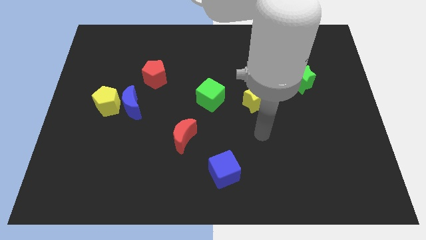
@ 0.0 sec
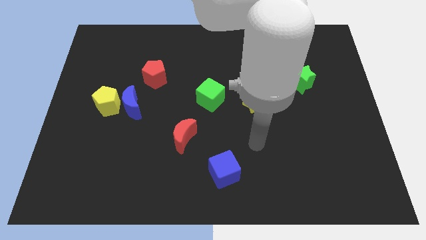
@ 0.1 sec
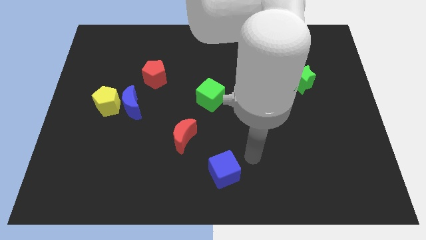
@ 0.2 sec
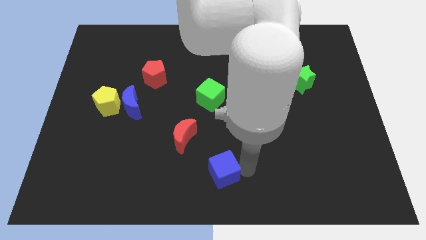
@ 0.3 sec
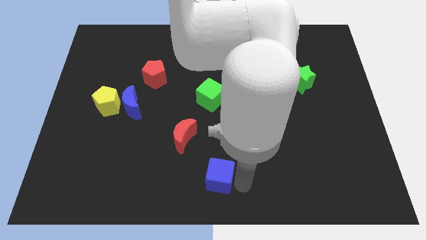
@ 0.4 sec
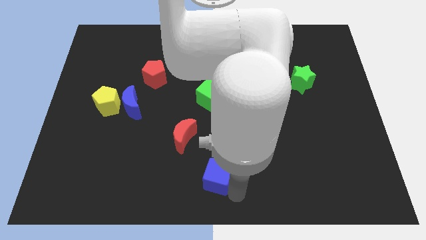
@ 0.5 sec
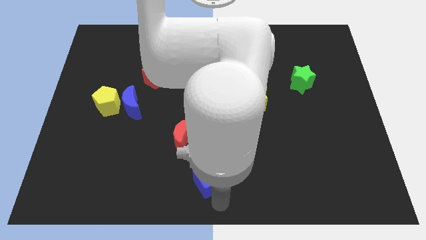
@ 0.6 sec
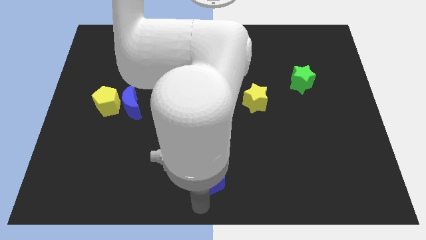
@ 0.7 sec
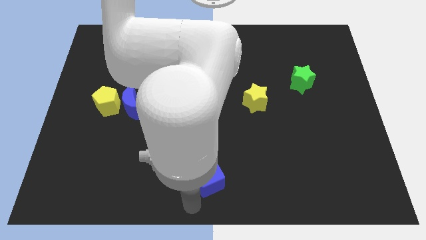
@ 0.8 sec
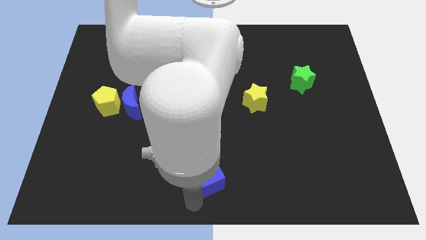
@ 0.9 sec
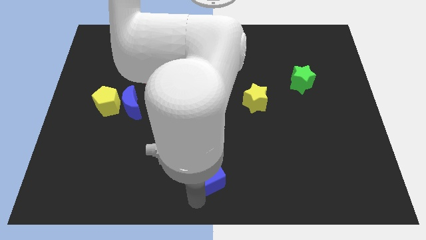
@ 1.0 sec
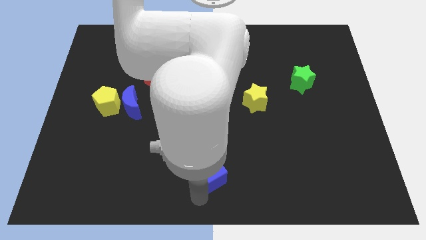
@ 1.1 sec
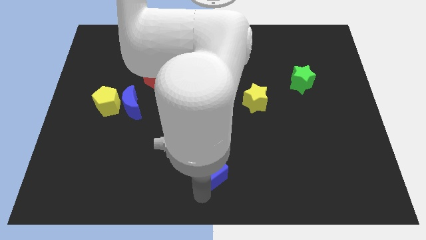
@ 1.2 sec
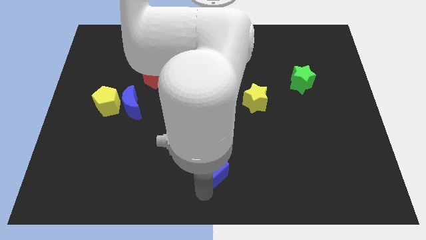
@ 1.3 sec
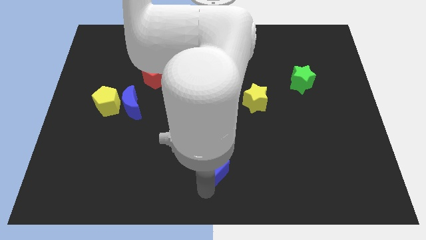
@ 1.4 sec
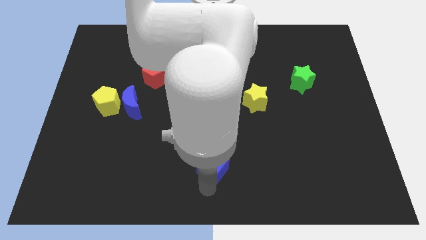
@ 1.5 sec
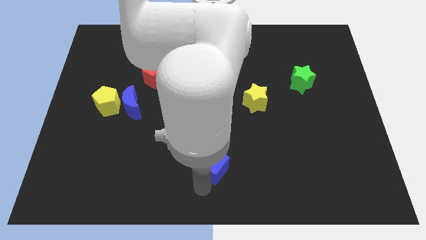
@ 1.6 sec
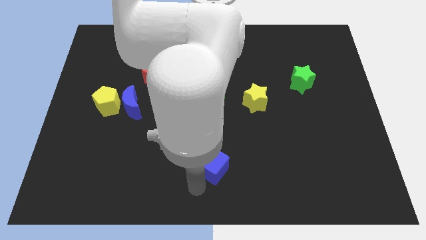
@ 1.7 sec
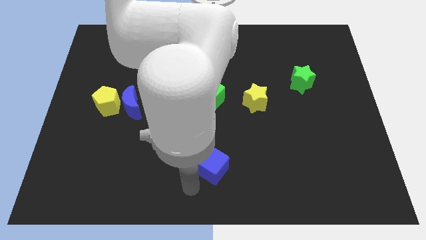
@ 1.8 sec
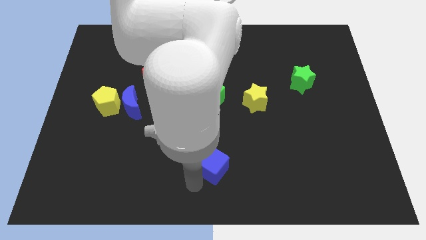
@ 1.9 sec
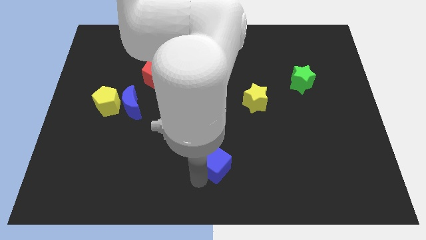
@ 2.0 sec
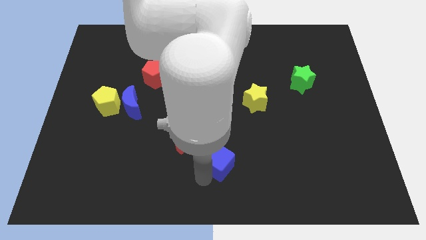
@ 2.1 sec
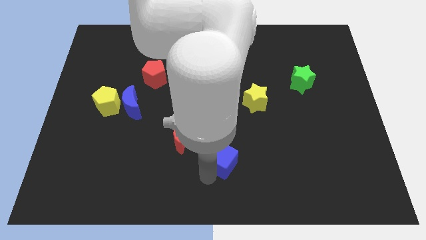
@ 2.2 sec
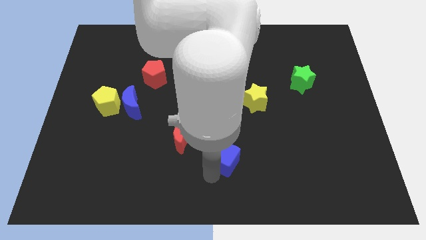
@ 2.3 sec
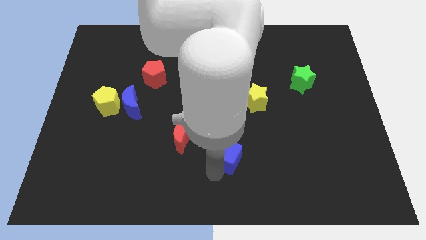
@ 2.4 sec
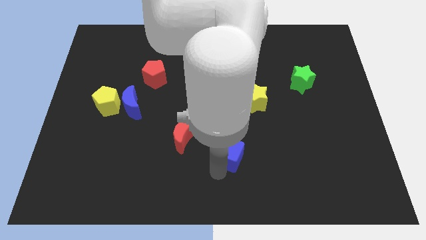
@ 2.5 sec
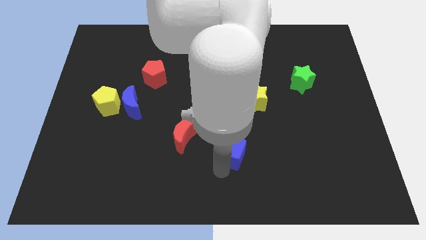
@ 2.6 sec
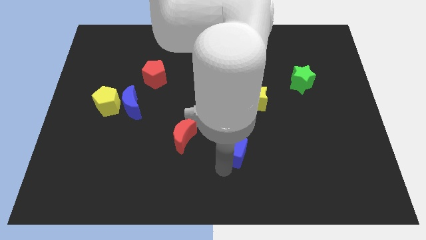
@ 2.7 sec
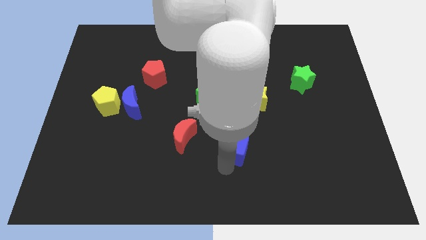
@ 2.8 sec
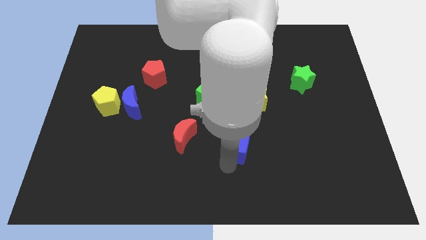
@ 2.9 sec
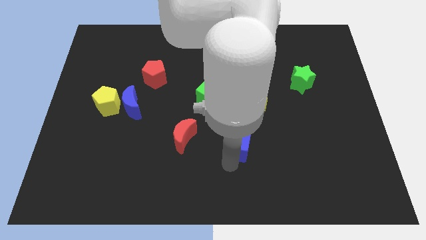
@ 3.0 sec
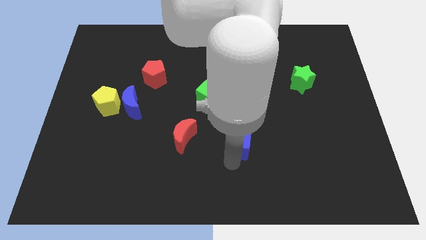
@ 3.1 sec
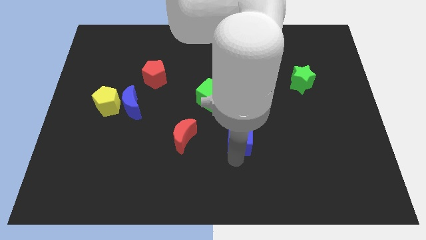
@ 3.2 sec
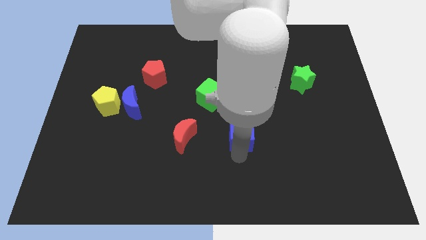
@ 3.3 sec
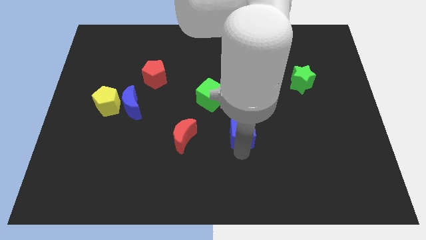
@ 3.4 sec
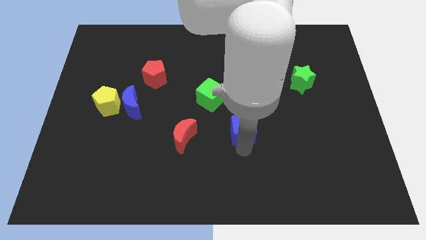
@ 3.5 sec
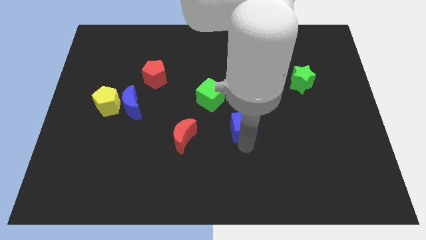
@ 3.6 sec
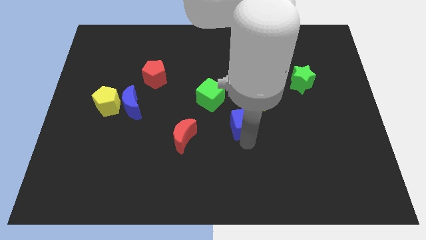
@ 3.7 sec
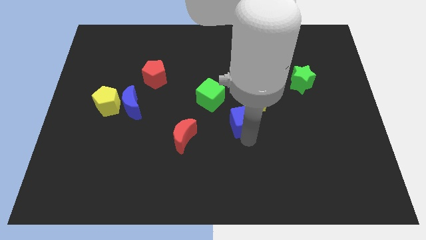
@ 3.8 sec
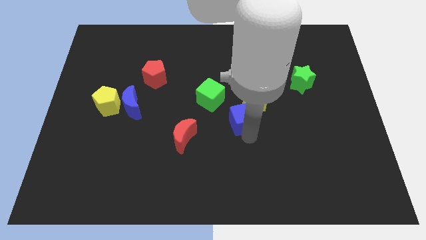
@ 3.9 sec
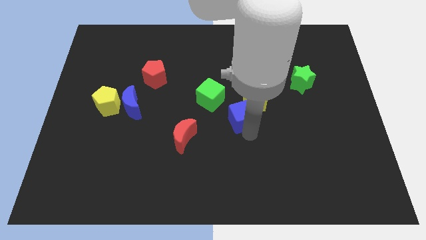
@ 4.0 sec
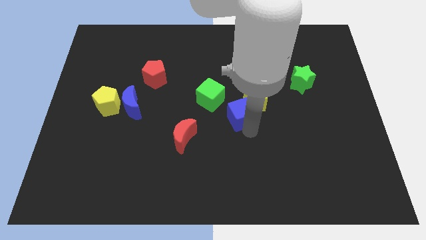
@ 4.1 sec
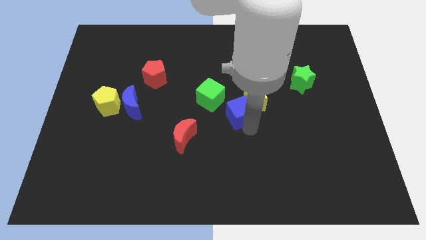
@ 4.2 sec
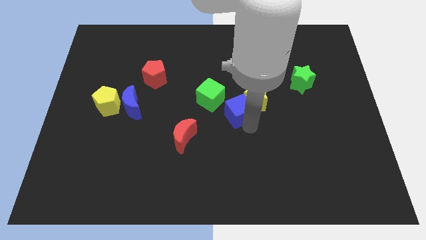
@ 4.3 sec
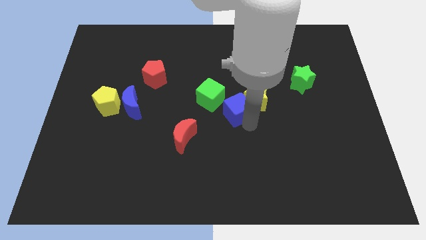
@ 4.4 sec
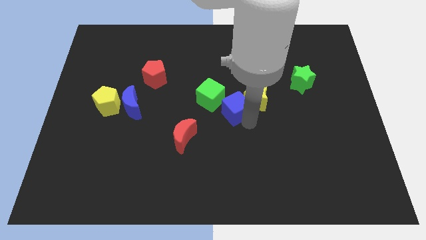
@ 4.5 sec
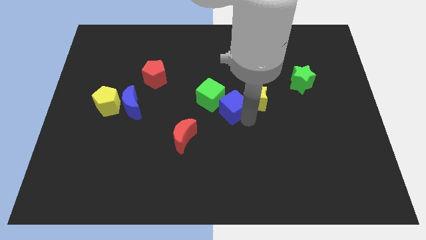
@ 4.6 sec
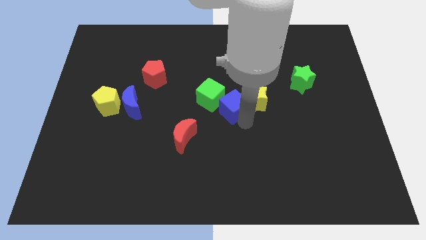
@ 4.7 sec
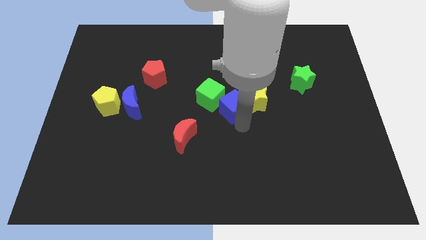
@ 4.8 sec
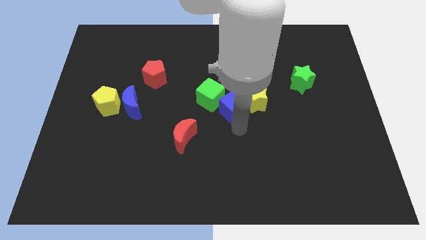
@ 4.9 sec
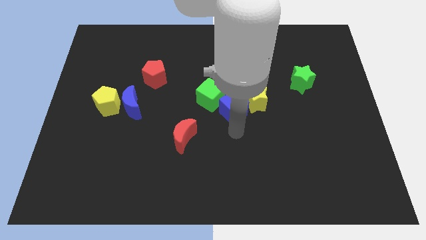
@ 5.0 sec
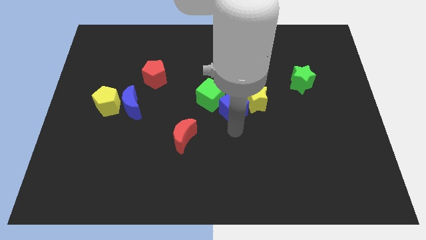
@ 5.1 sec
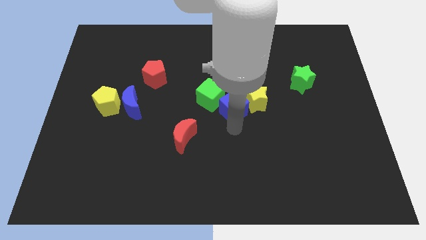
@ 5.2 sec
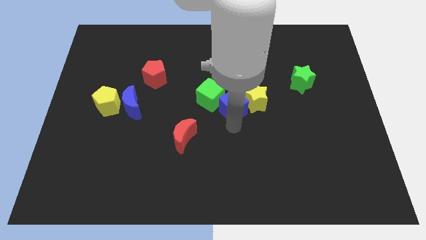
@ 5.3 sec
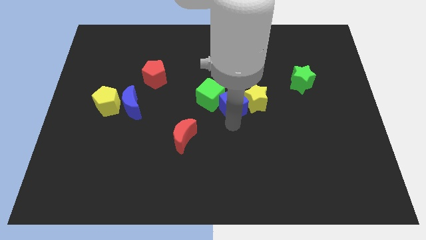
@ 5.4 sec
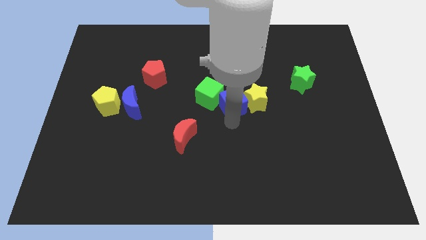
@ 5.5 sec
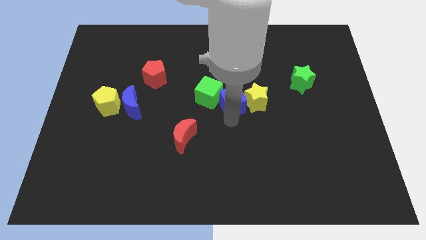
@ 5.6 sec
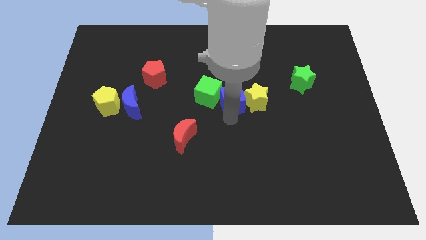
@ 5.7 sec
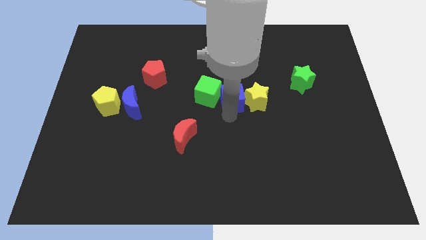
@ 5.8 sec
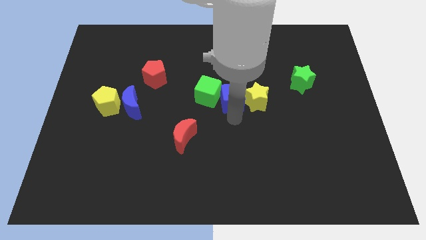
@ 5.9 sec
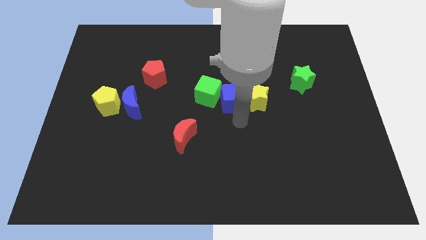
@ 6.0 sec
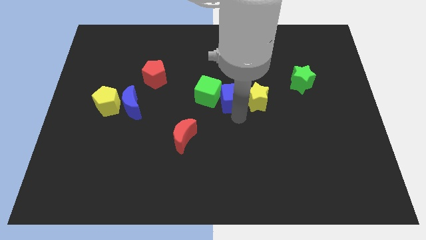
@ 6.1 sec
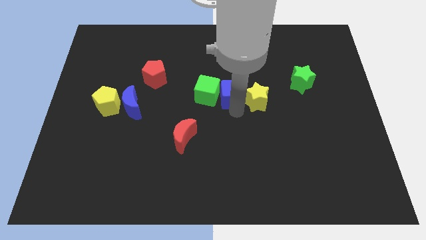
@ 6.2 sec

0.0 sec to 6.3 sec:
move the blue cube up

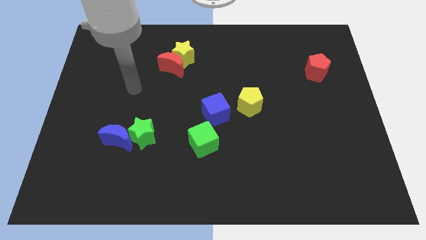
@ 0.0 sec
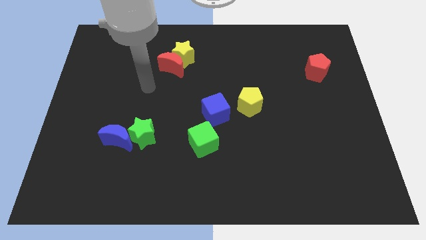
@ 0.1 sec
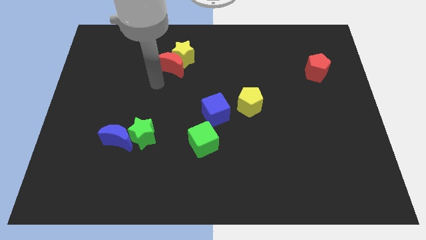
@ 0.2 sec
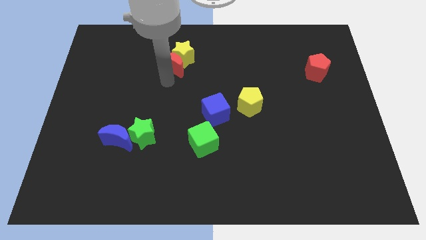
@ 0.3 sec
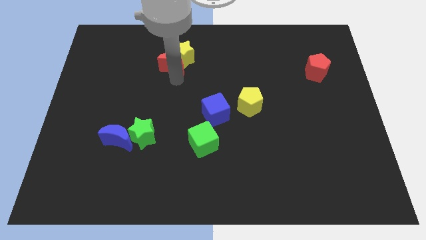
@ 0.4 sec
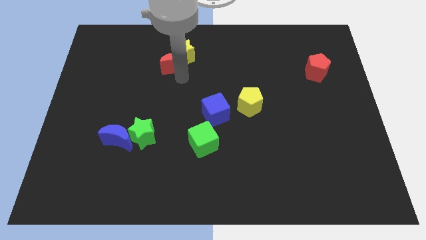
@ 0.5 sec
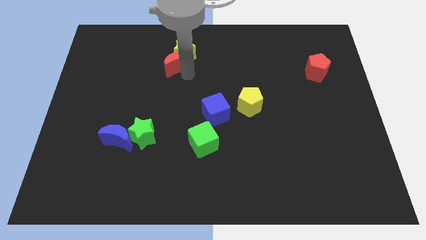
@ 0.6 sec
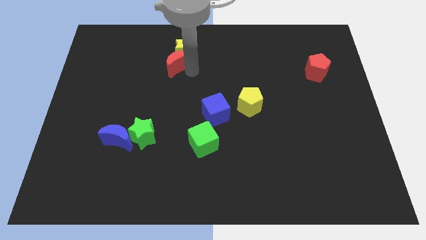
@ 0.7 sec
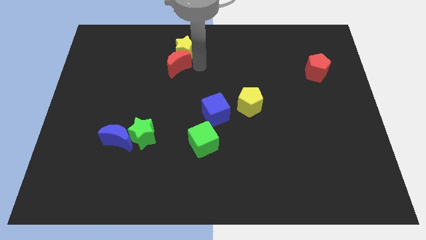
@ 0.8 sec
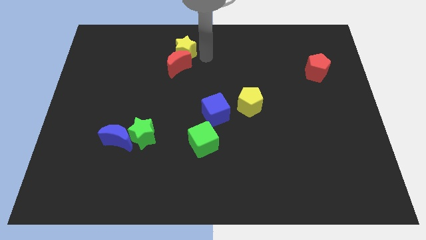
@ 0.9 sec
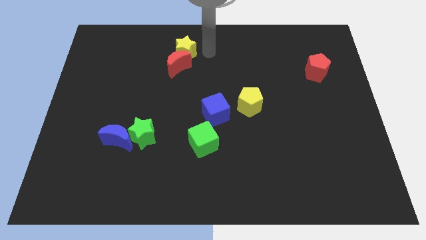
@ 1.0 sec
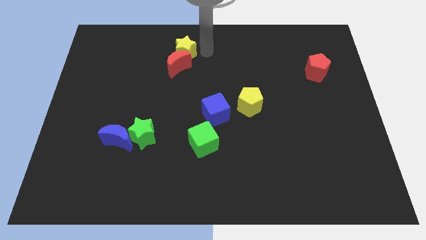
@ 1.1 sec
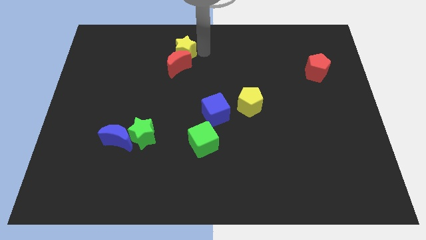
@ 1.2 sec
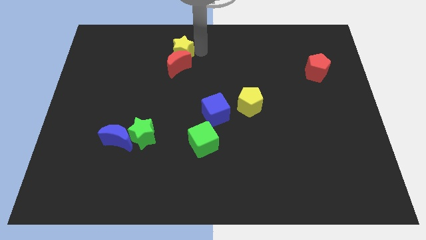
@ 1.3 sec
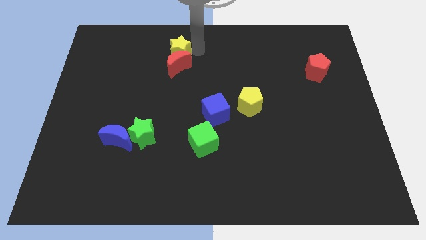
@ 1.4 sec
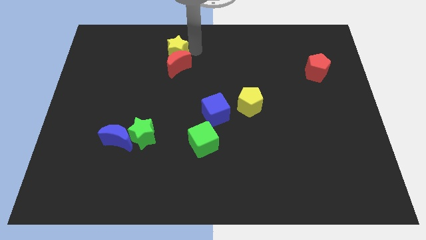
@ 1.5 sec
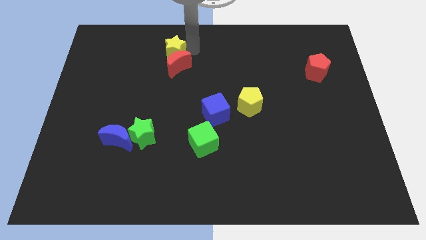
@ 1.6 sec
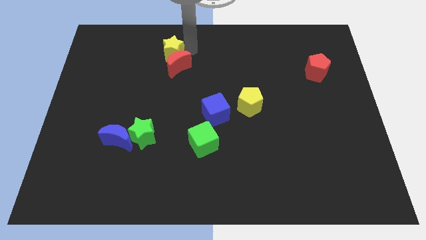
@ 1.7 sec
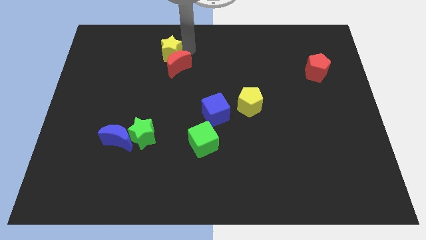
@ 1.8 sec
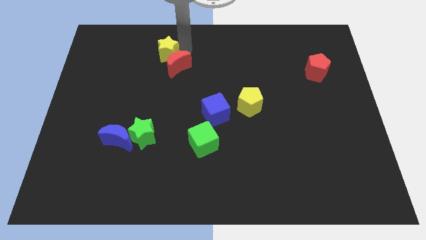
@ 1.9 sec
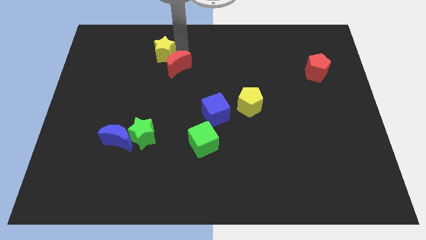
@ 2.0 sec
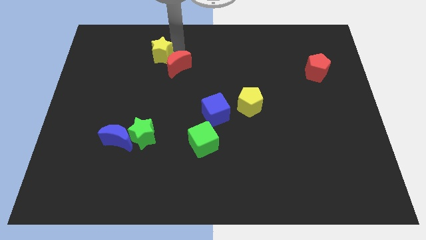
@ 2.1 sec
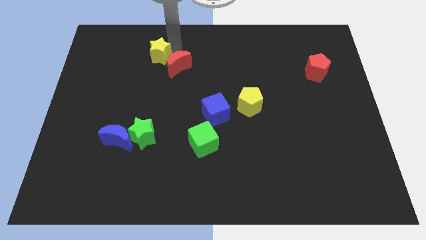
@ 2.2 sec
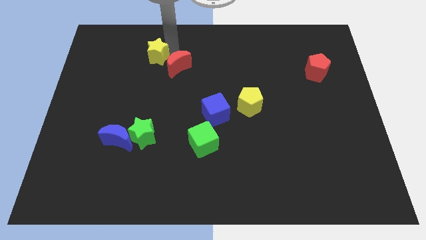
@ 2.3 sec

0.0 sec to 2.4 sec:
move the yellow star to the left slightly
